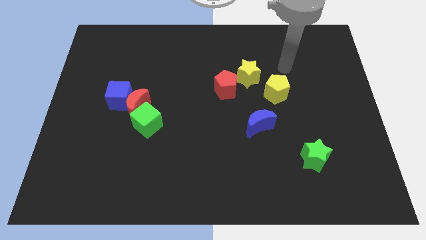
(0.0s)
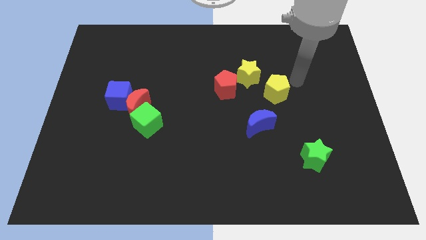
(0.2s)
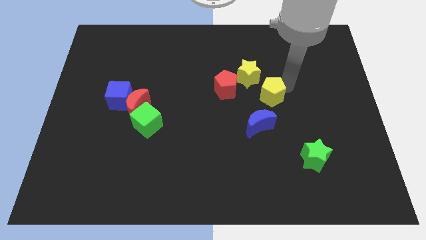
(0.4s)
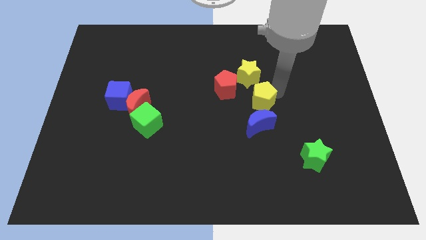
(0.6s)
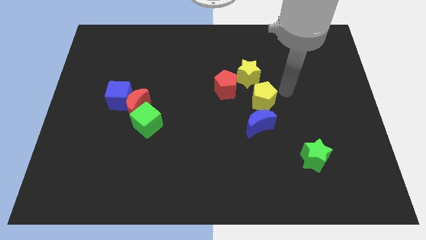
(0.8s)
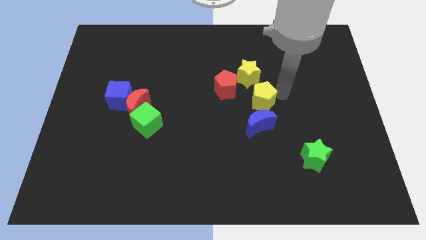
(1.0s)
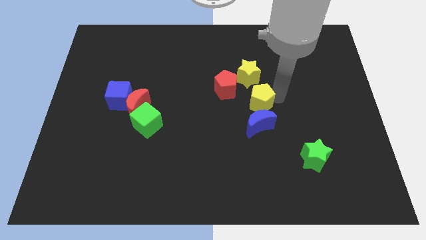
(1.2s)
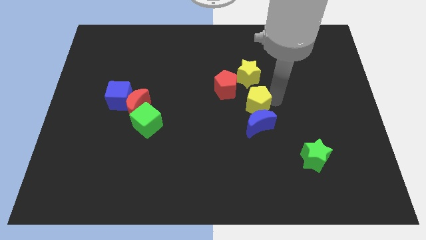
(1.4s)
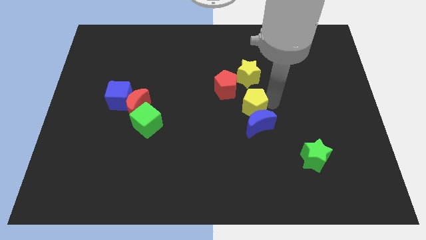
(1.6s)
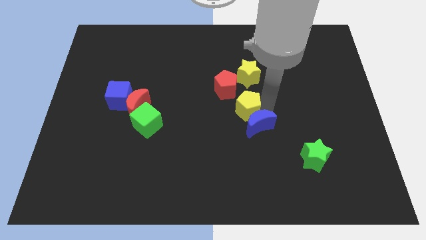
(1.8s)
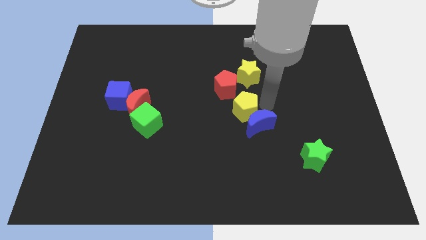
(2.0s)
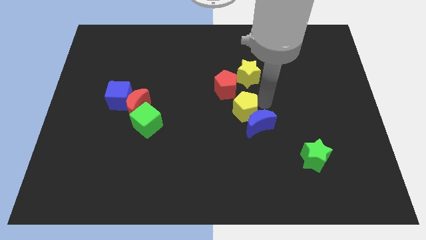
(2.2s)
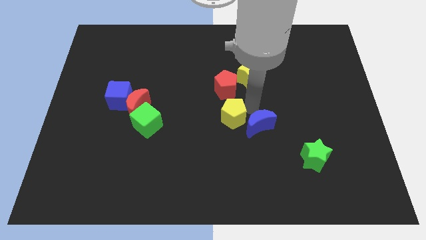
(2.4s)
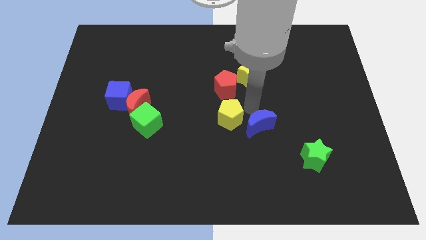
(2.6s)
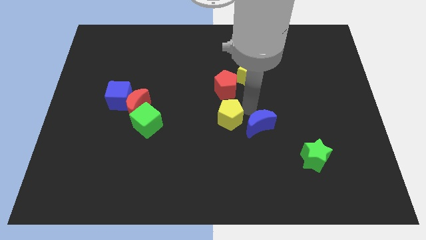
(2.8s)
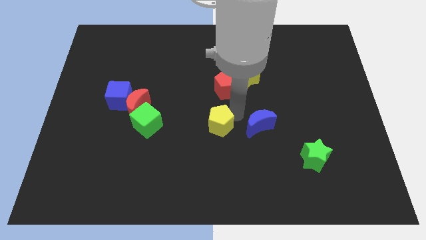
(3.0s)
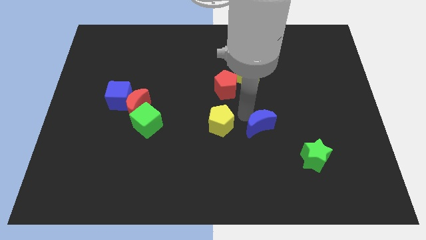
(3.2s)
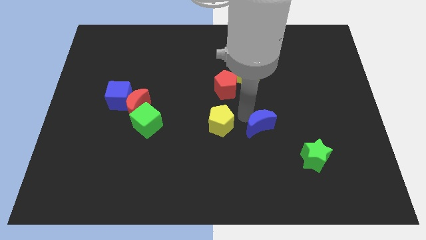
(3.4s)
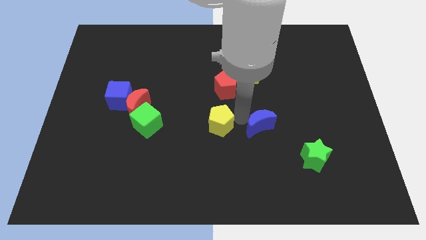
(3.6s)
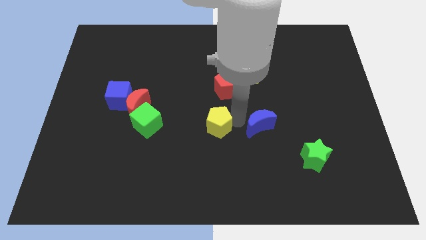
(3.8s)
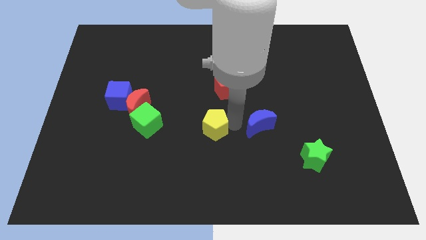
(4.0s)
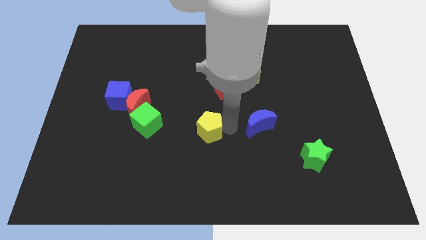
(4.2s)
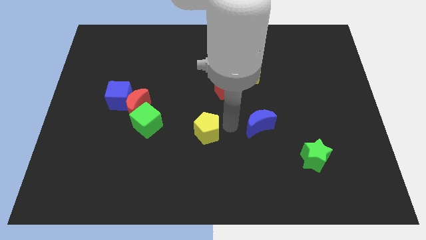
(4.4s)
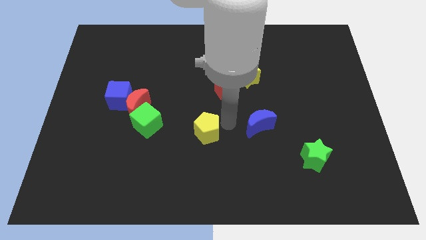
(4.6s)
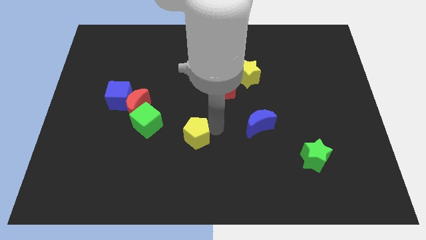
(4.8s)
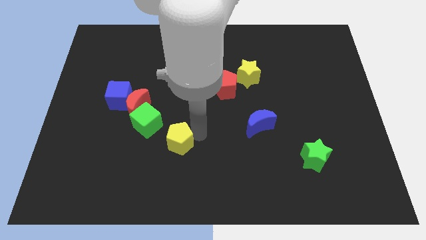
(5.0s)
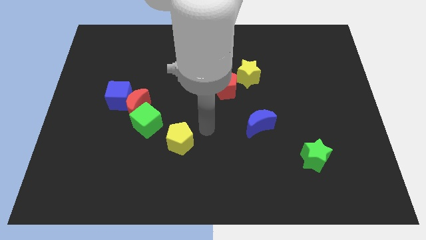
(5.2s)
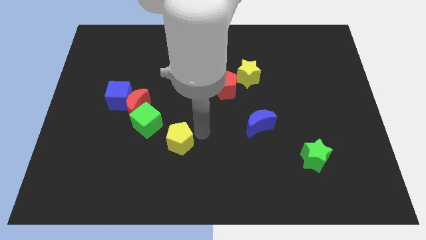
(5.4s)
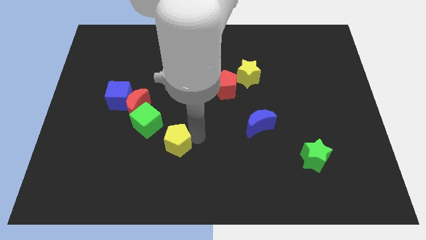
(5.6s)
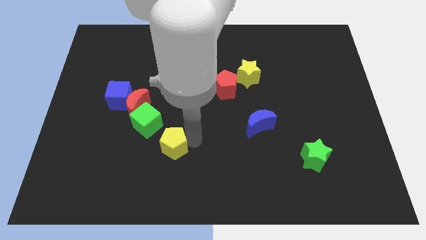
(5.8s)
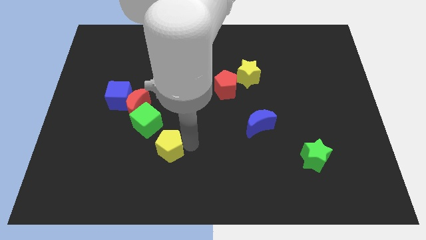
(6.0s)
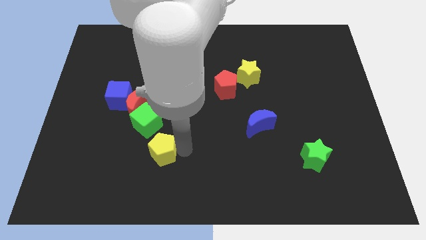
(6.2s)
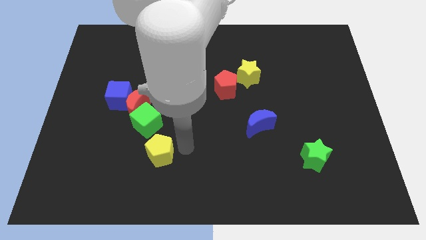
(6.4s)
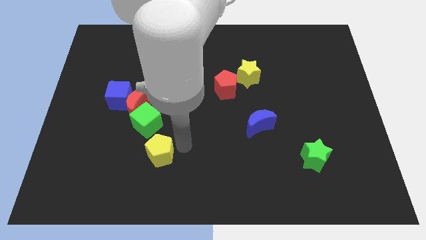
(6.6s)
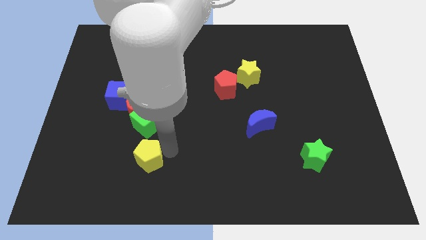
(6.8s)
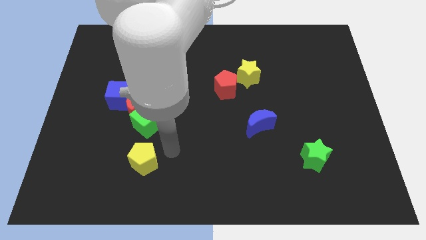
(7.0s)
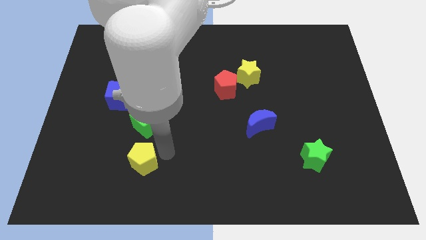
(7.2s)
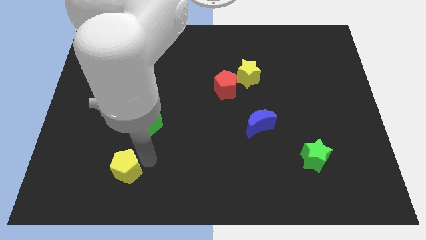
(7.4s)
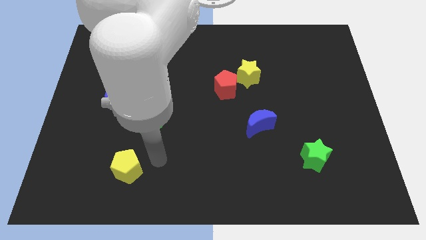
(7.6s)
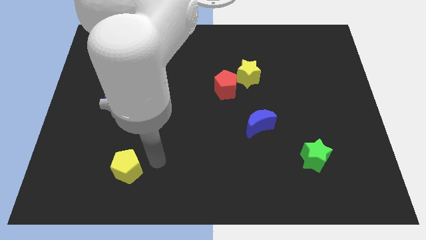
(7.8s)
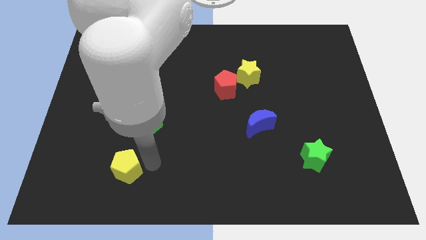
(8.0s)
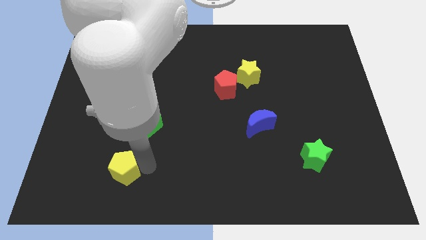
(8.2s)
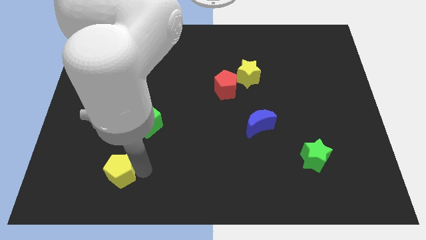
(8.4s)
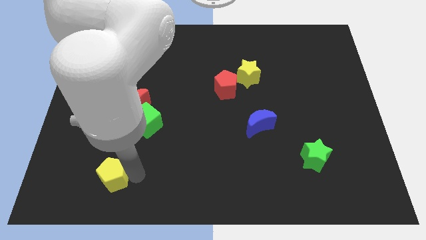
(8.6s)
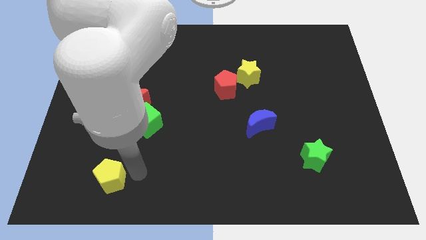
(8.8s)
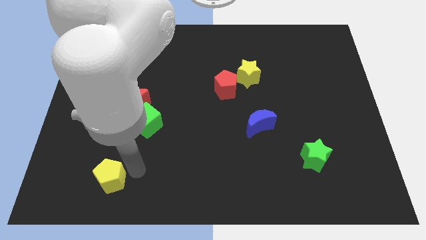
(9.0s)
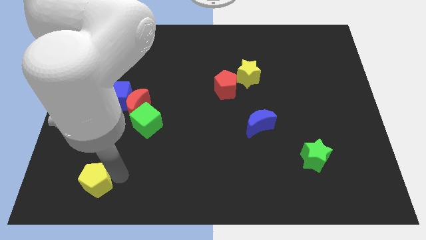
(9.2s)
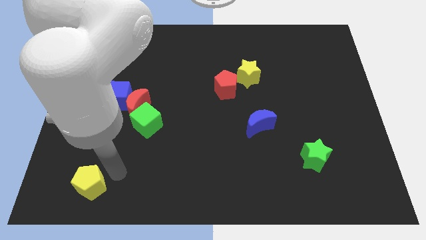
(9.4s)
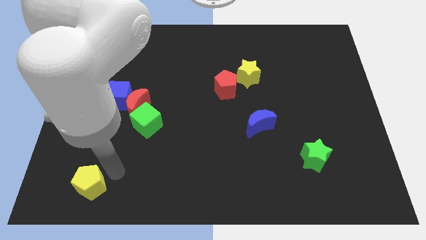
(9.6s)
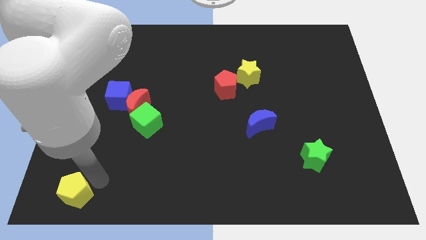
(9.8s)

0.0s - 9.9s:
slide the yellow pentagon to the bottom left

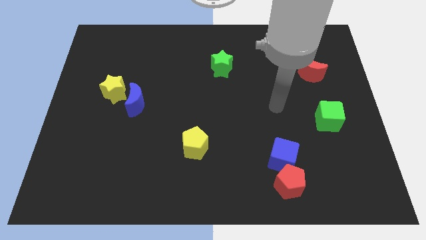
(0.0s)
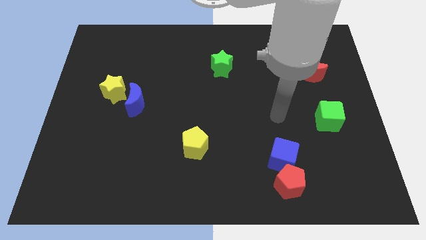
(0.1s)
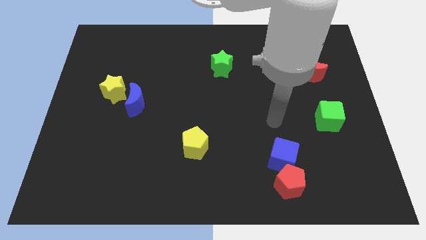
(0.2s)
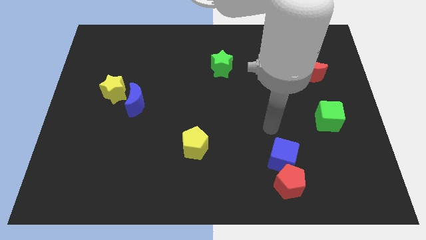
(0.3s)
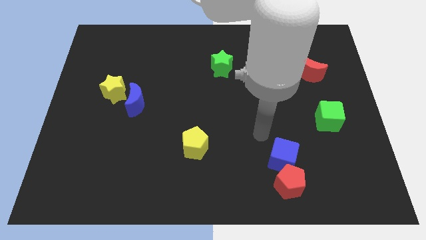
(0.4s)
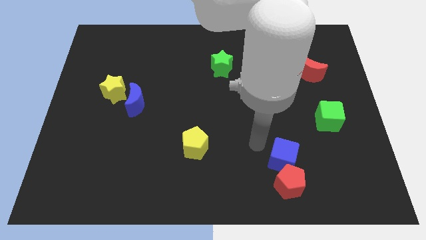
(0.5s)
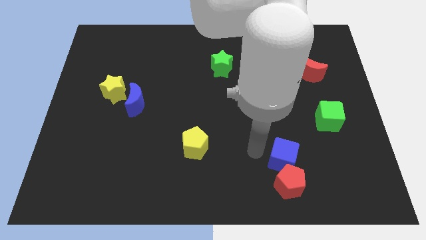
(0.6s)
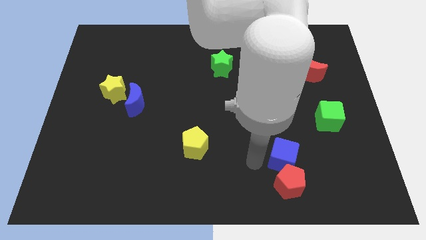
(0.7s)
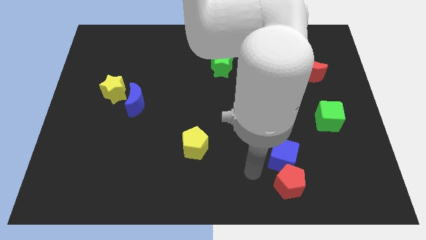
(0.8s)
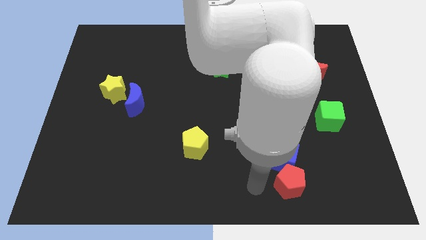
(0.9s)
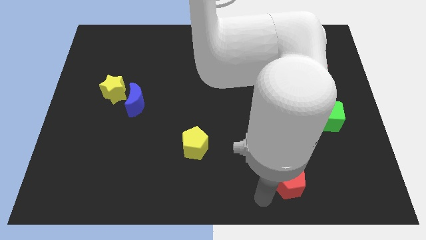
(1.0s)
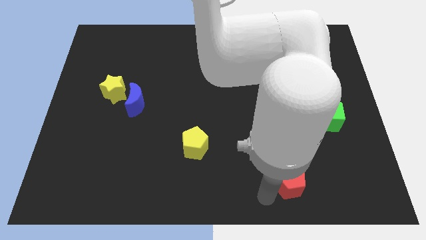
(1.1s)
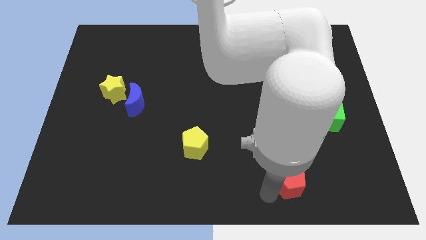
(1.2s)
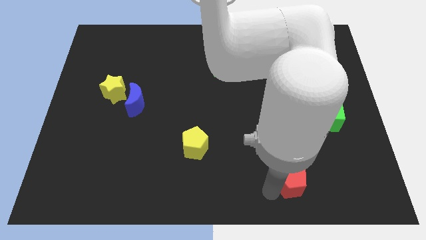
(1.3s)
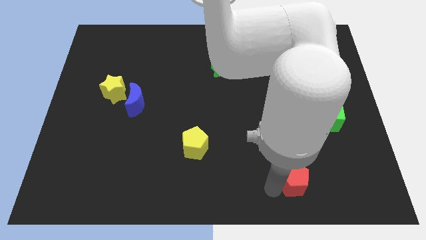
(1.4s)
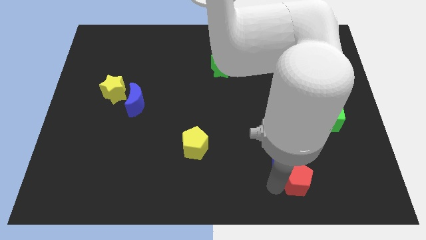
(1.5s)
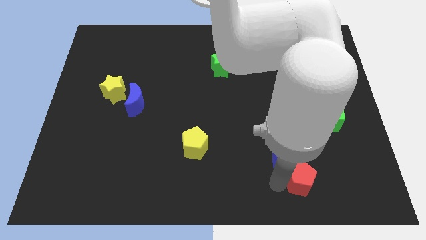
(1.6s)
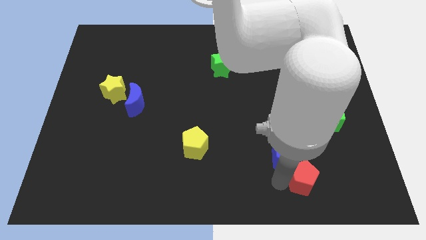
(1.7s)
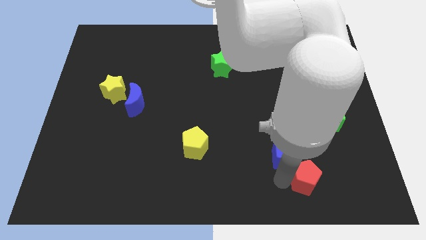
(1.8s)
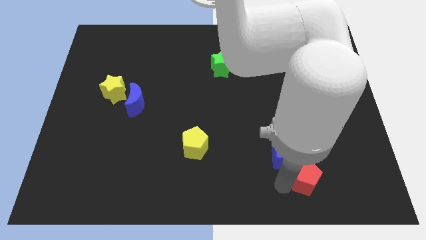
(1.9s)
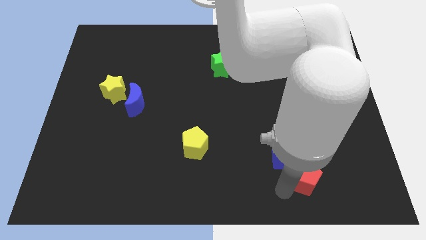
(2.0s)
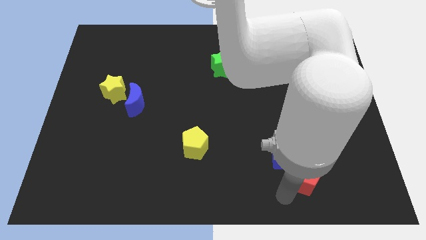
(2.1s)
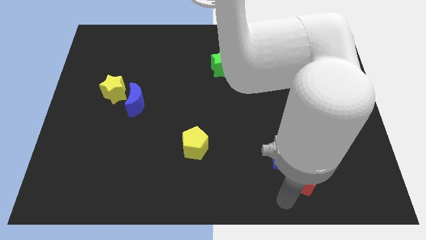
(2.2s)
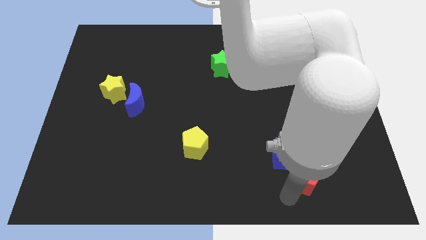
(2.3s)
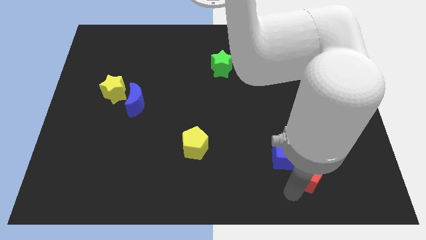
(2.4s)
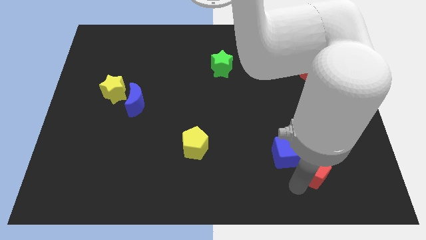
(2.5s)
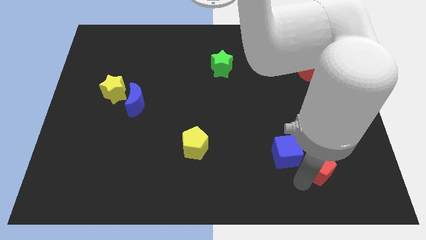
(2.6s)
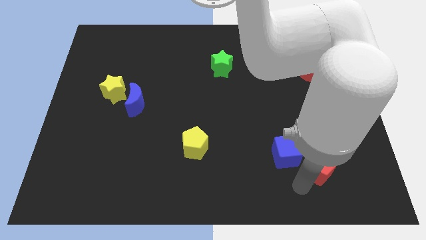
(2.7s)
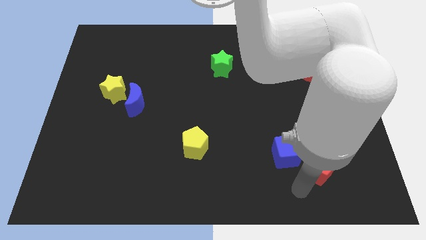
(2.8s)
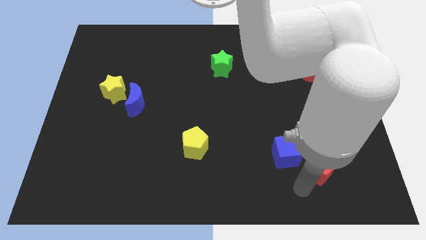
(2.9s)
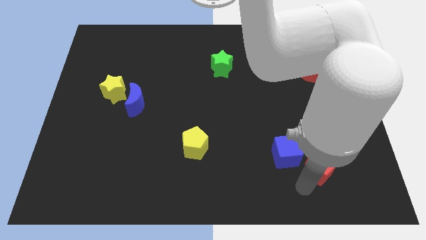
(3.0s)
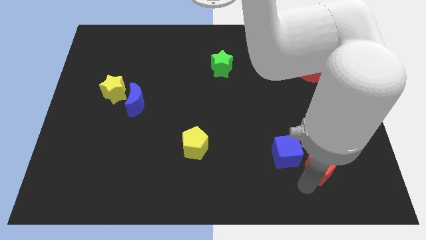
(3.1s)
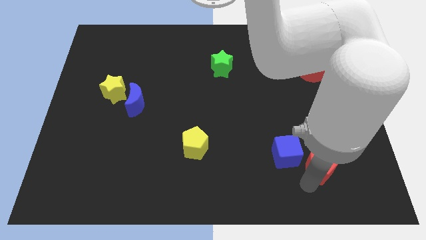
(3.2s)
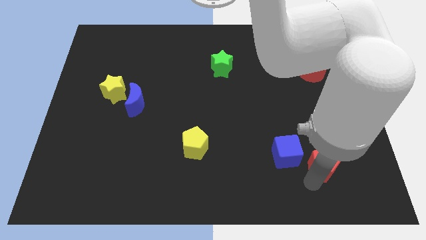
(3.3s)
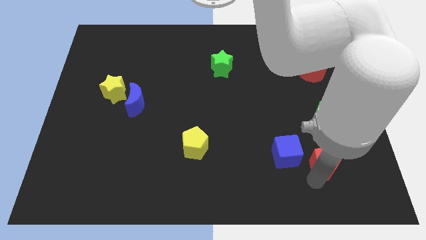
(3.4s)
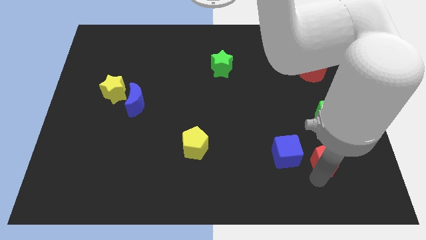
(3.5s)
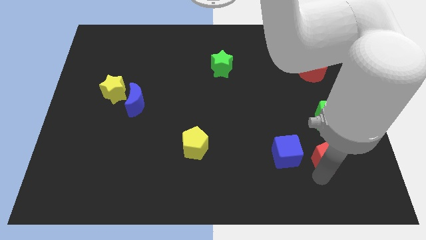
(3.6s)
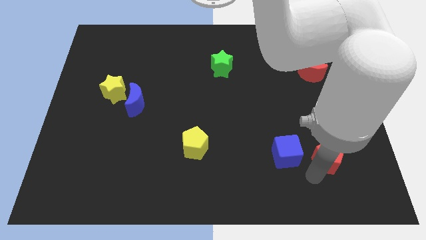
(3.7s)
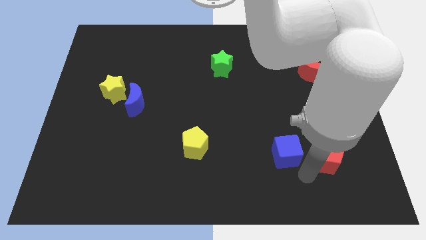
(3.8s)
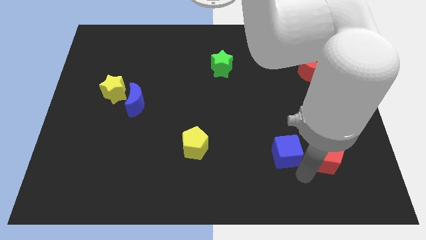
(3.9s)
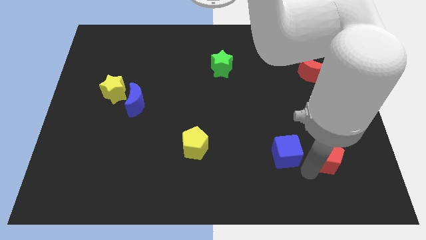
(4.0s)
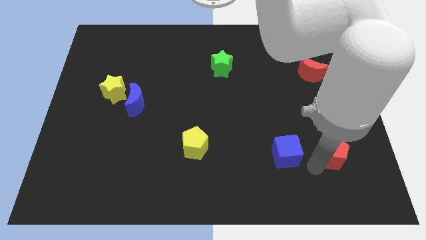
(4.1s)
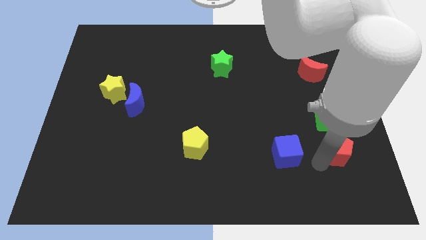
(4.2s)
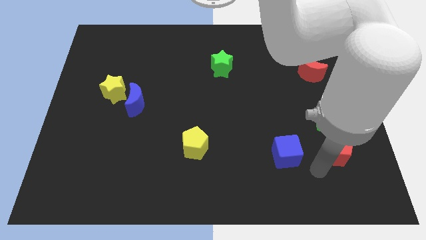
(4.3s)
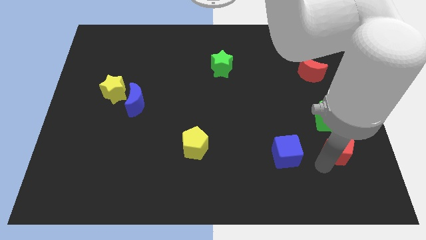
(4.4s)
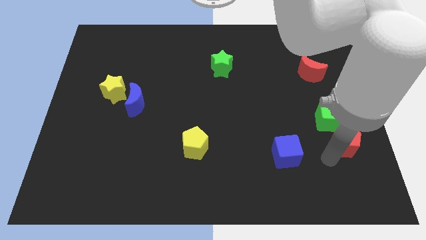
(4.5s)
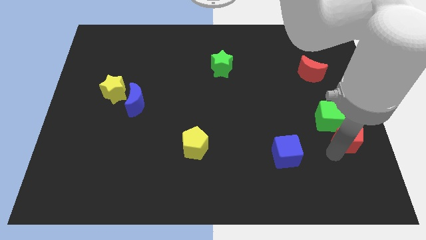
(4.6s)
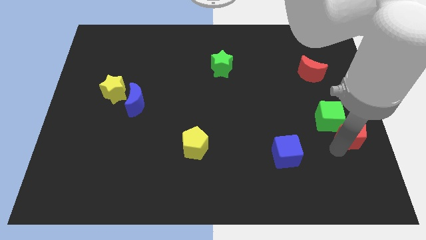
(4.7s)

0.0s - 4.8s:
push the red pentagon to the center right
